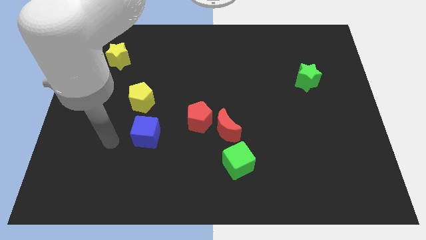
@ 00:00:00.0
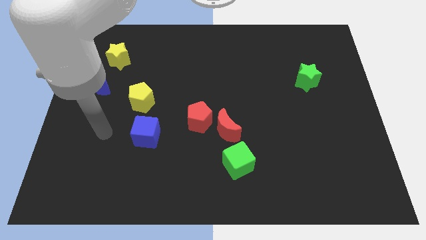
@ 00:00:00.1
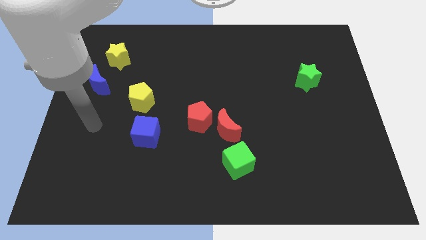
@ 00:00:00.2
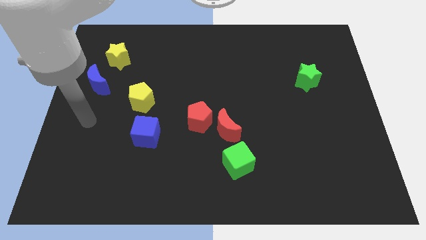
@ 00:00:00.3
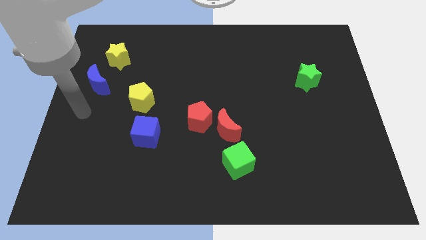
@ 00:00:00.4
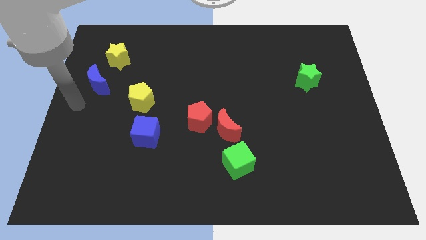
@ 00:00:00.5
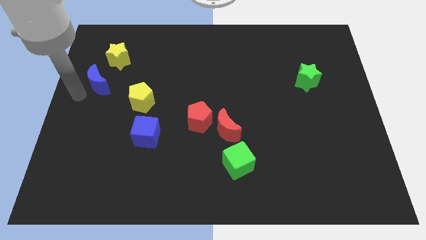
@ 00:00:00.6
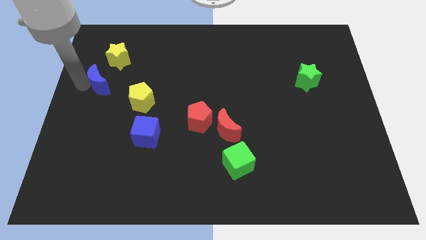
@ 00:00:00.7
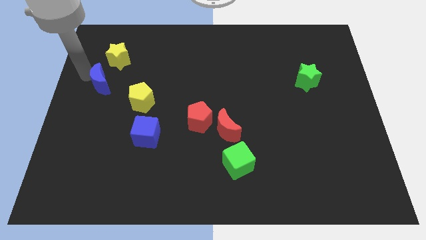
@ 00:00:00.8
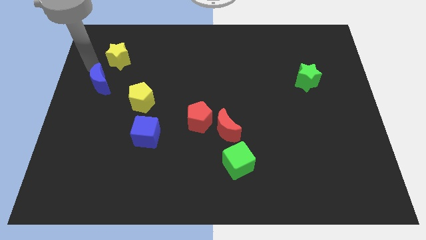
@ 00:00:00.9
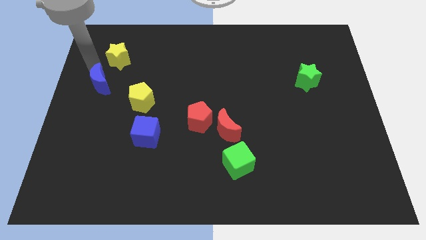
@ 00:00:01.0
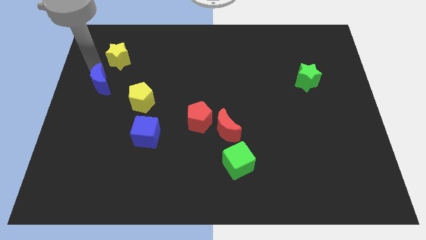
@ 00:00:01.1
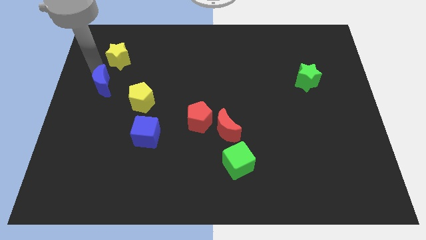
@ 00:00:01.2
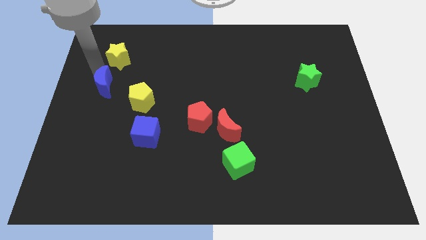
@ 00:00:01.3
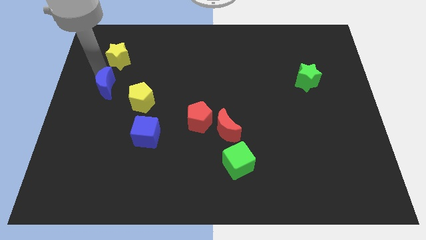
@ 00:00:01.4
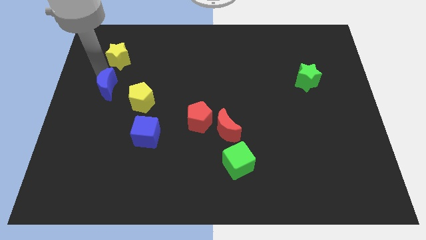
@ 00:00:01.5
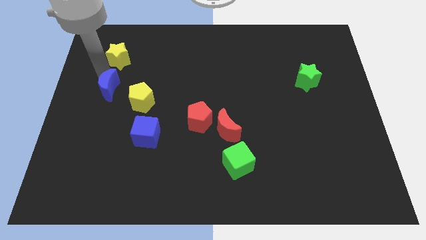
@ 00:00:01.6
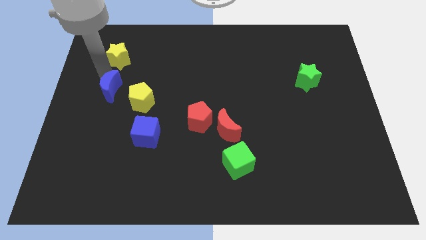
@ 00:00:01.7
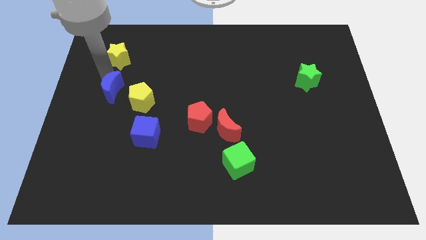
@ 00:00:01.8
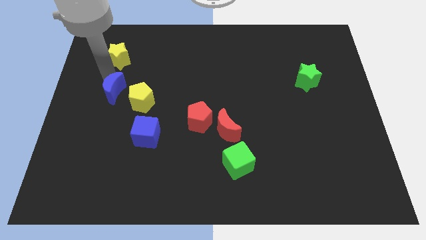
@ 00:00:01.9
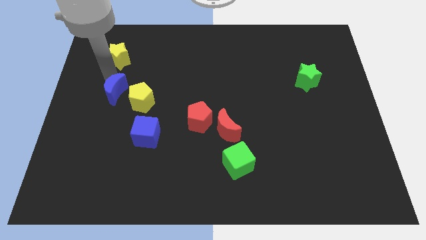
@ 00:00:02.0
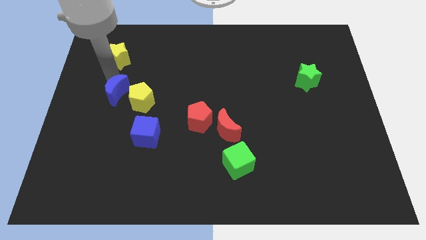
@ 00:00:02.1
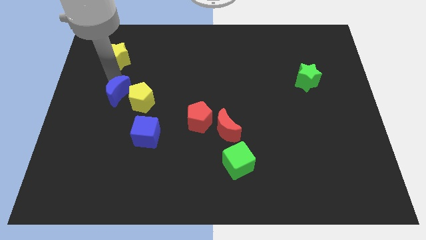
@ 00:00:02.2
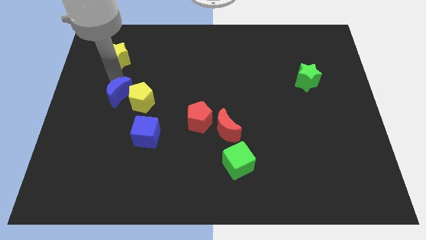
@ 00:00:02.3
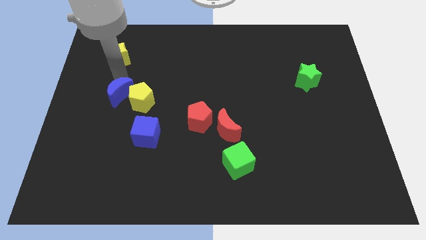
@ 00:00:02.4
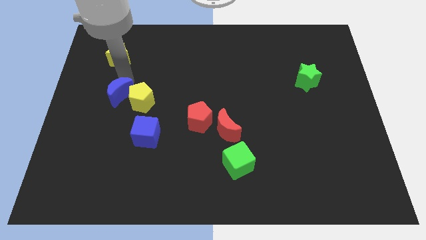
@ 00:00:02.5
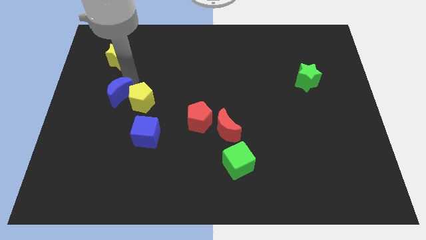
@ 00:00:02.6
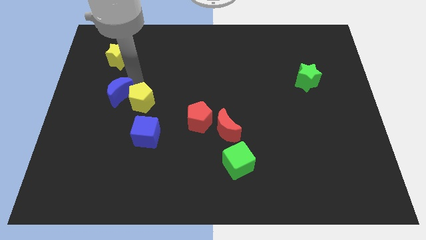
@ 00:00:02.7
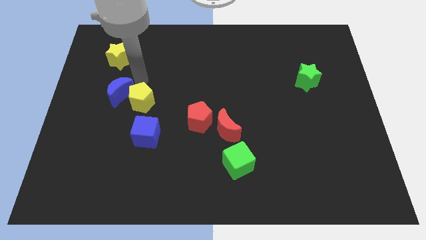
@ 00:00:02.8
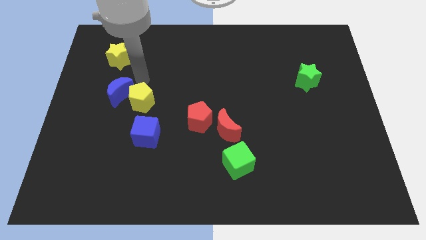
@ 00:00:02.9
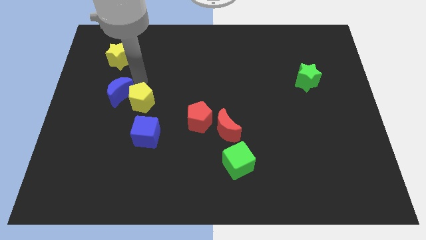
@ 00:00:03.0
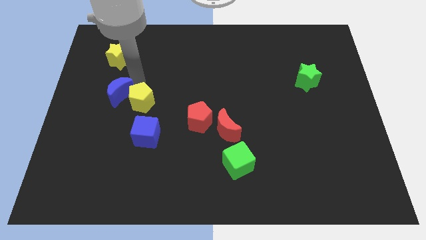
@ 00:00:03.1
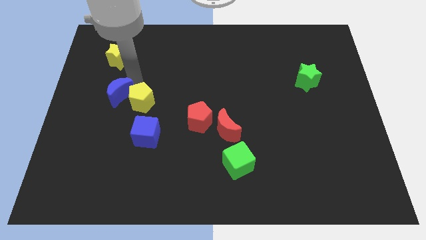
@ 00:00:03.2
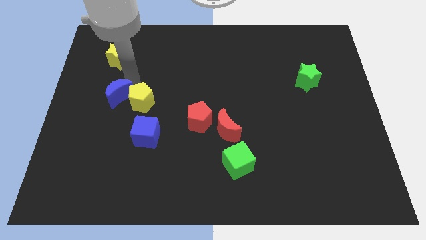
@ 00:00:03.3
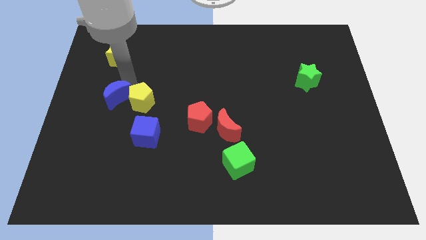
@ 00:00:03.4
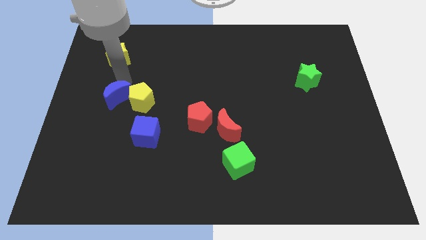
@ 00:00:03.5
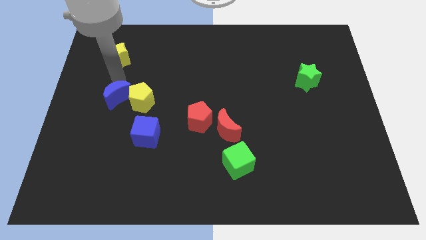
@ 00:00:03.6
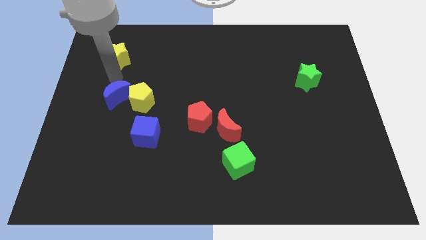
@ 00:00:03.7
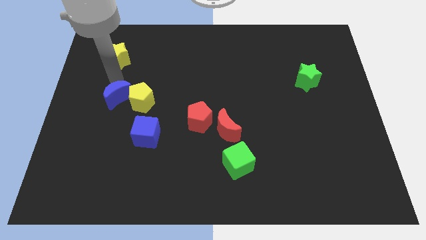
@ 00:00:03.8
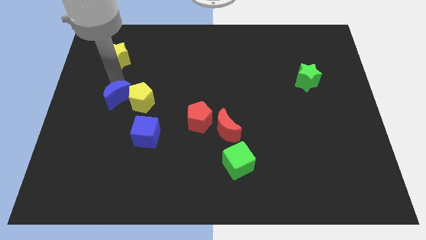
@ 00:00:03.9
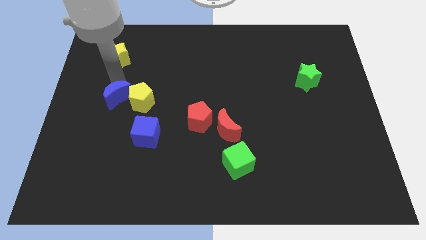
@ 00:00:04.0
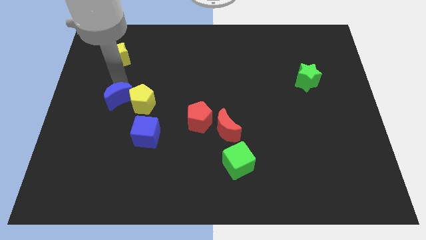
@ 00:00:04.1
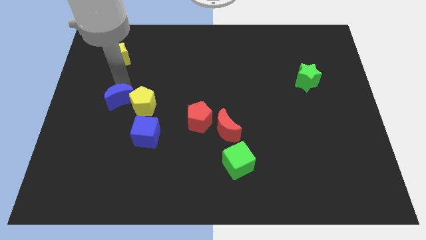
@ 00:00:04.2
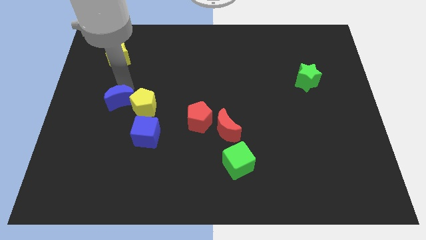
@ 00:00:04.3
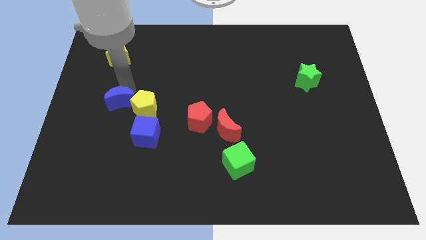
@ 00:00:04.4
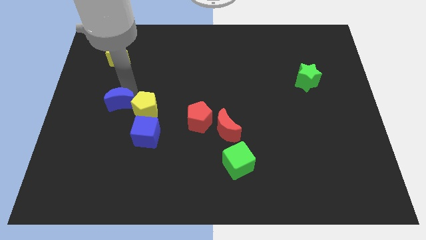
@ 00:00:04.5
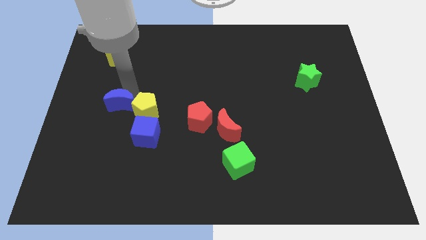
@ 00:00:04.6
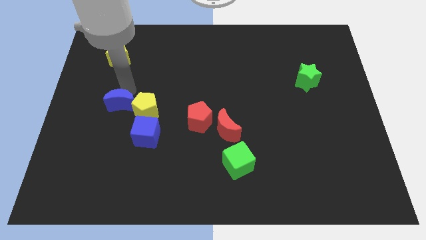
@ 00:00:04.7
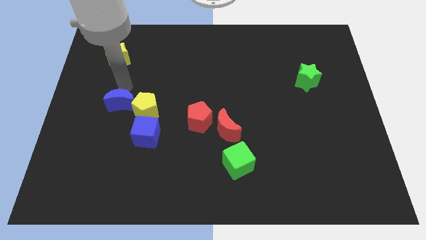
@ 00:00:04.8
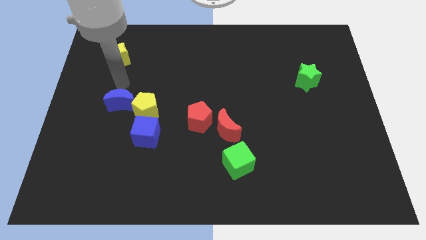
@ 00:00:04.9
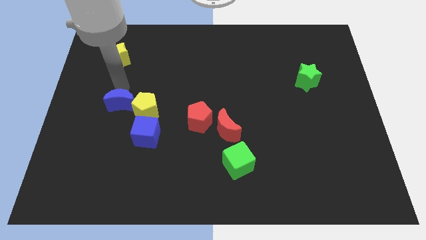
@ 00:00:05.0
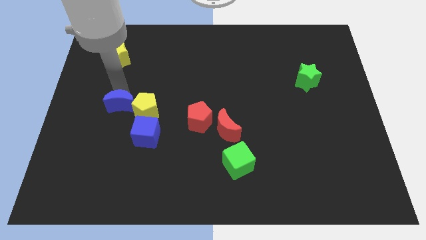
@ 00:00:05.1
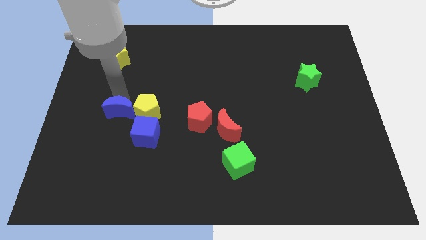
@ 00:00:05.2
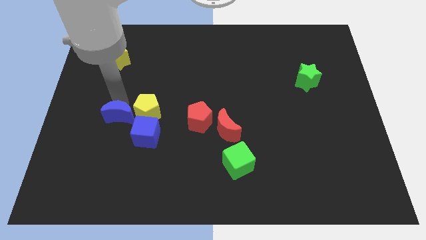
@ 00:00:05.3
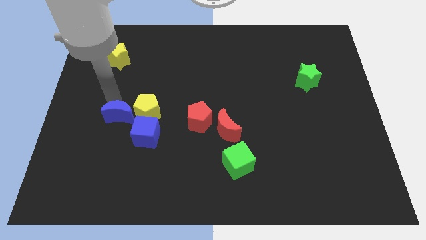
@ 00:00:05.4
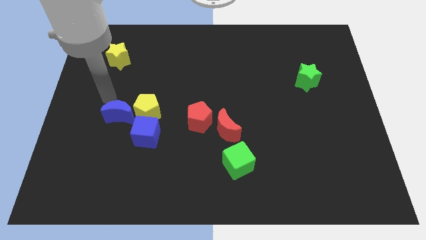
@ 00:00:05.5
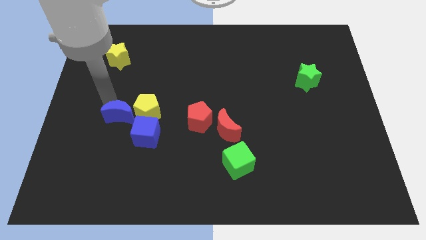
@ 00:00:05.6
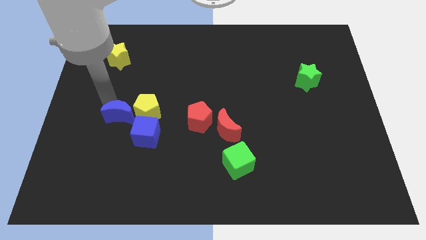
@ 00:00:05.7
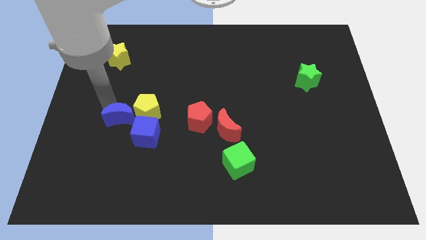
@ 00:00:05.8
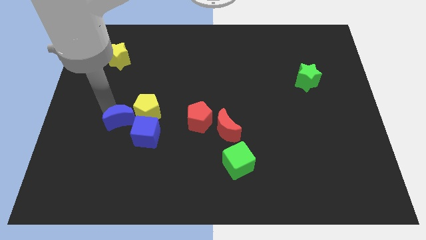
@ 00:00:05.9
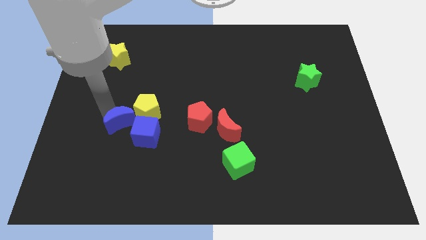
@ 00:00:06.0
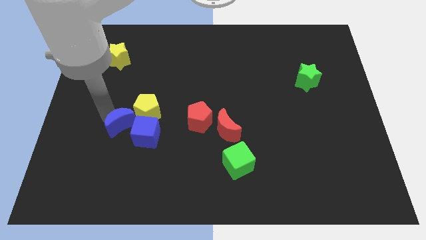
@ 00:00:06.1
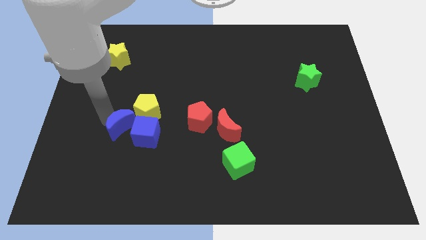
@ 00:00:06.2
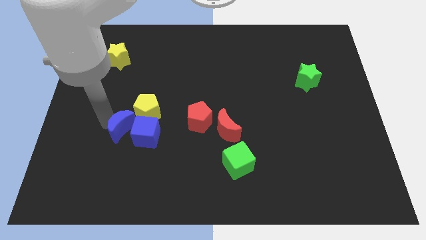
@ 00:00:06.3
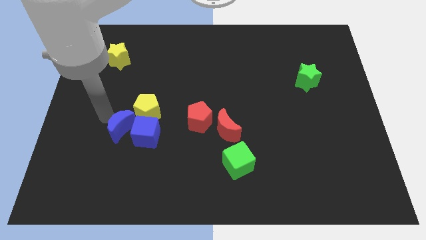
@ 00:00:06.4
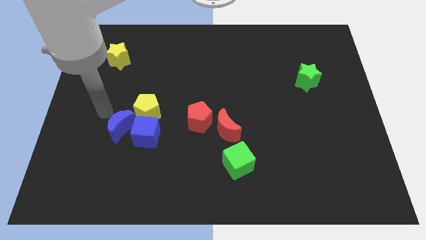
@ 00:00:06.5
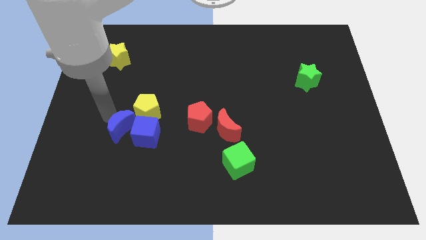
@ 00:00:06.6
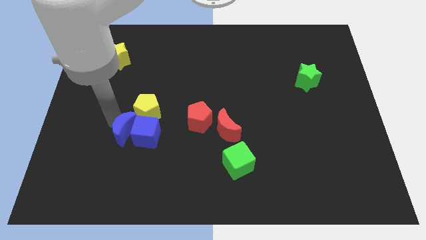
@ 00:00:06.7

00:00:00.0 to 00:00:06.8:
put the blue moon below the yellow pentagon
